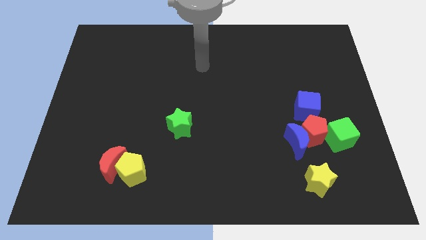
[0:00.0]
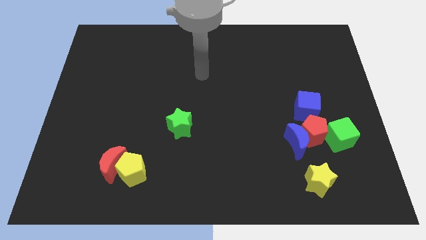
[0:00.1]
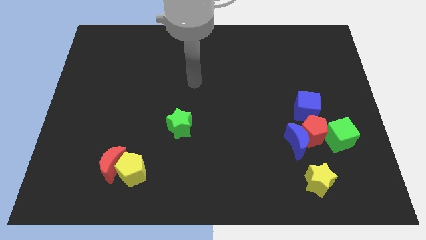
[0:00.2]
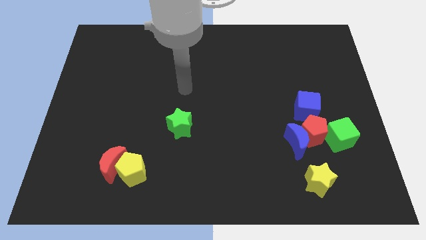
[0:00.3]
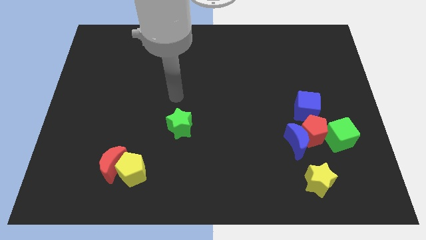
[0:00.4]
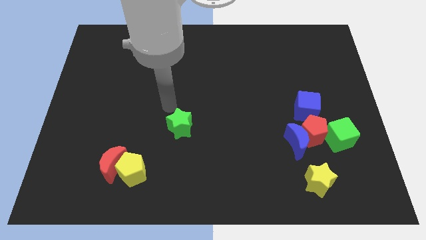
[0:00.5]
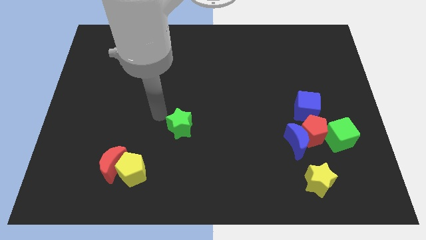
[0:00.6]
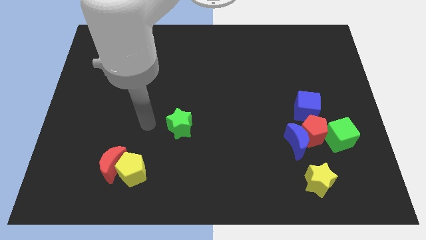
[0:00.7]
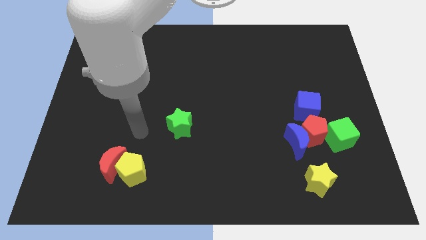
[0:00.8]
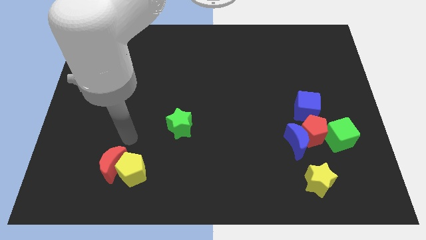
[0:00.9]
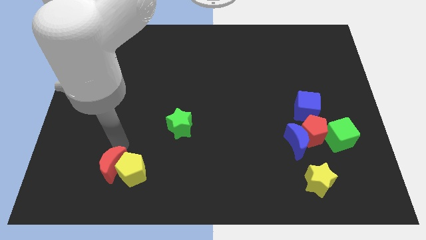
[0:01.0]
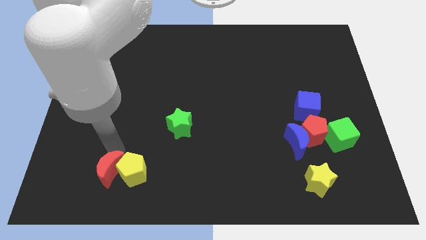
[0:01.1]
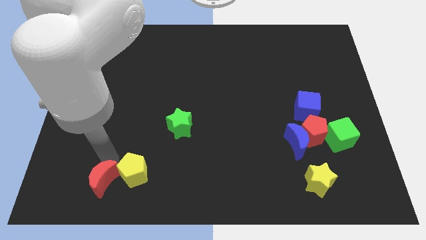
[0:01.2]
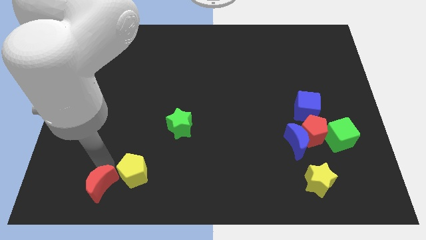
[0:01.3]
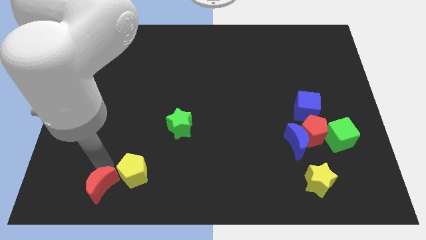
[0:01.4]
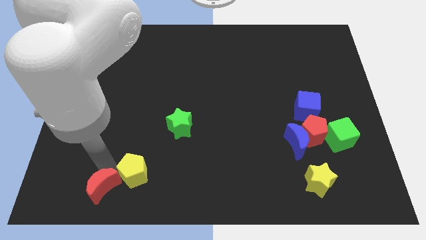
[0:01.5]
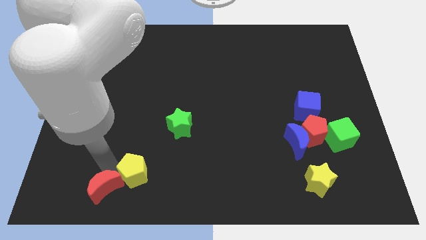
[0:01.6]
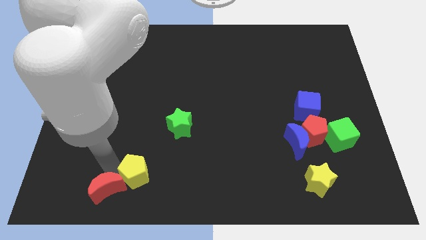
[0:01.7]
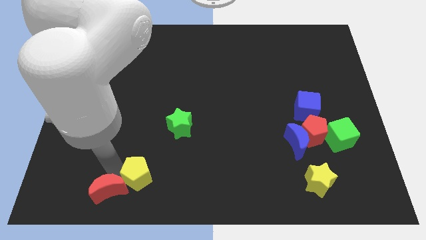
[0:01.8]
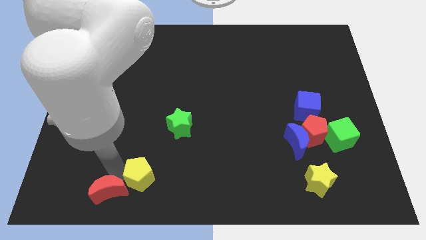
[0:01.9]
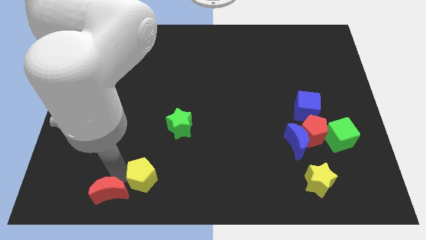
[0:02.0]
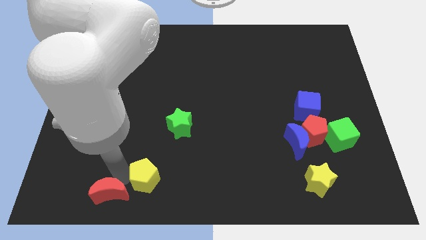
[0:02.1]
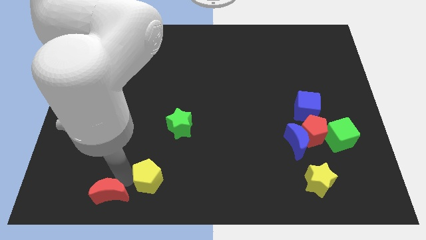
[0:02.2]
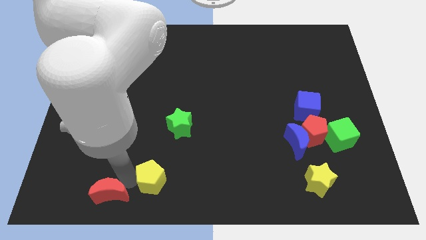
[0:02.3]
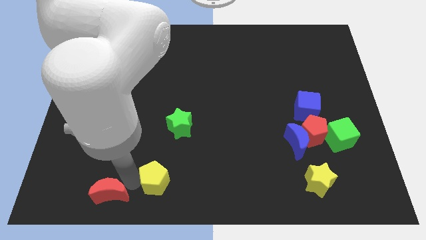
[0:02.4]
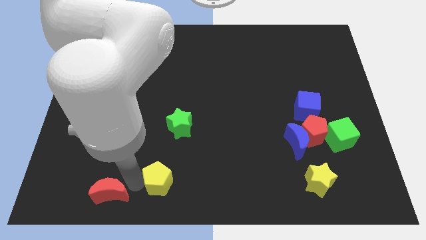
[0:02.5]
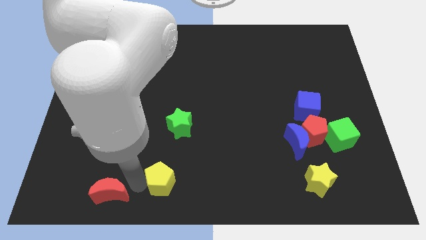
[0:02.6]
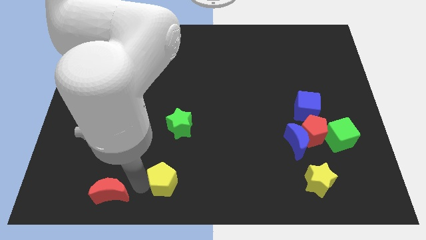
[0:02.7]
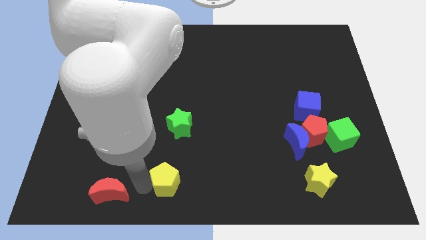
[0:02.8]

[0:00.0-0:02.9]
slightly slide the yellow pentagon to the right

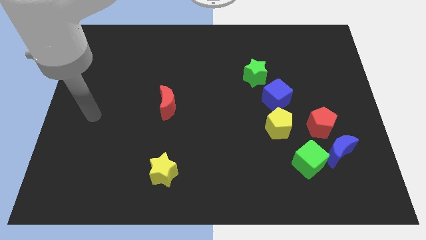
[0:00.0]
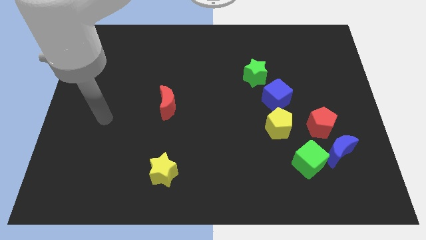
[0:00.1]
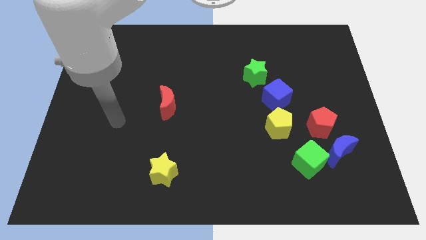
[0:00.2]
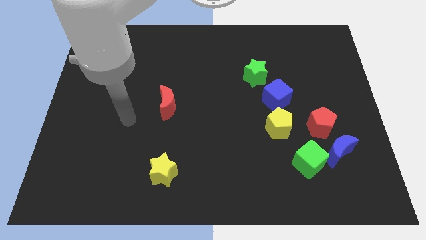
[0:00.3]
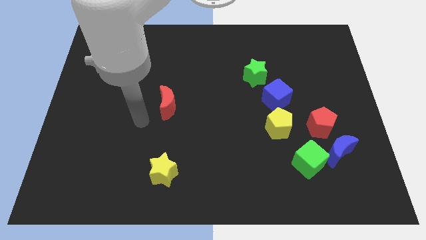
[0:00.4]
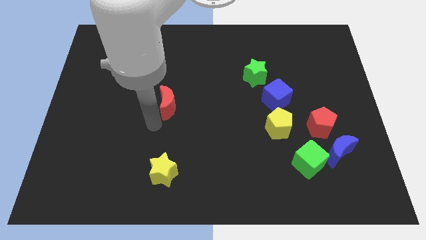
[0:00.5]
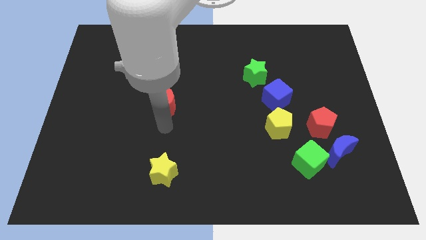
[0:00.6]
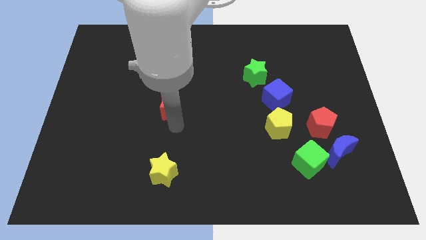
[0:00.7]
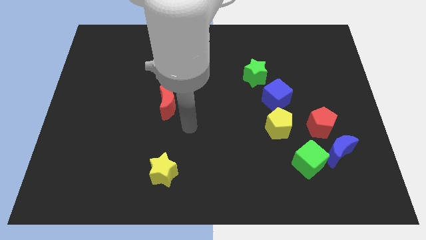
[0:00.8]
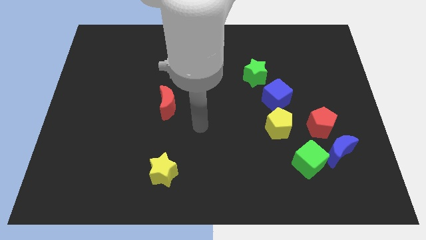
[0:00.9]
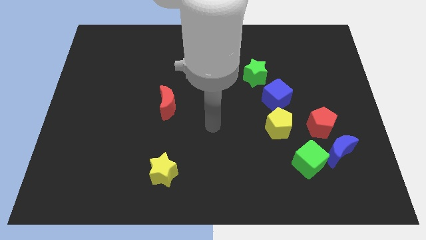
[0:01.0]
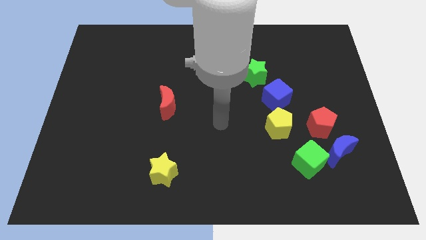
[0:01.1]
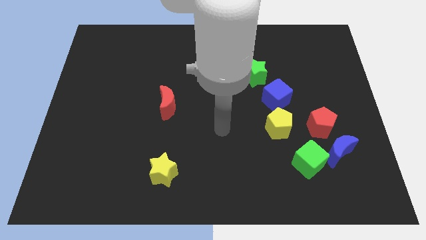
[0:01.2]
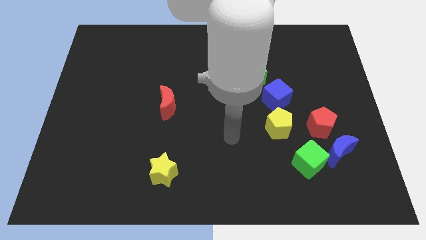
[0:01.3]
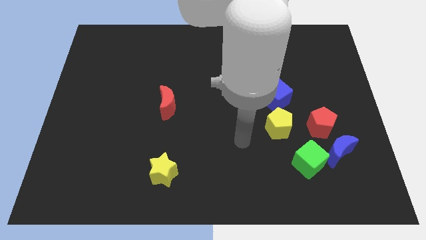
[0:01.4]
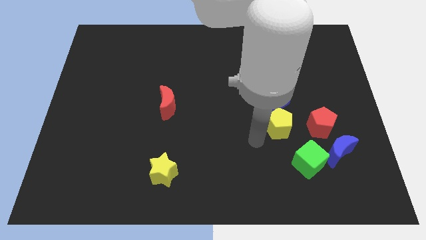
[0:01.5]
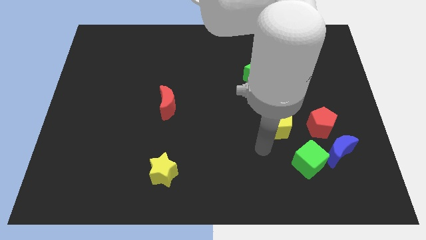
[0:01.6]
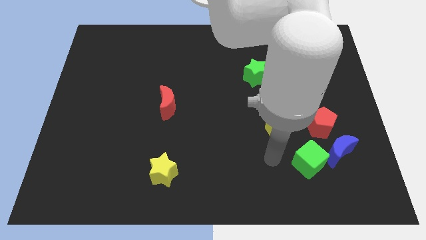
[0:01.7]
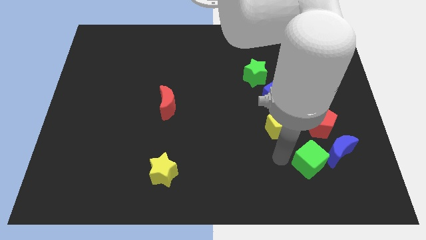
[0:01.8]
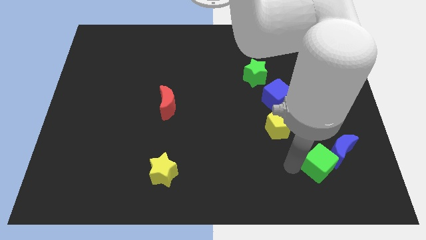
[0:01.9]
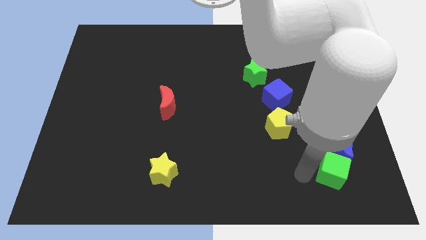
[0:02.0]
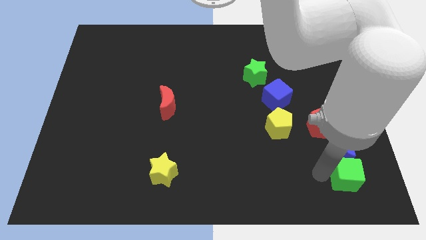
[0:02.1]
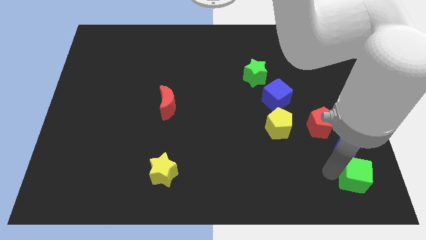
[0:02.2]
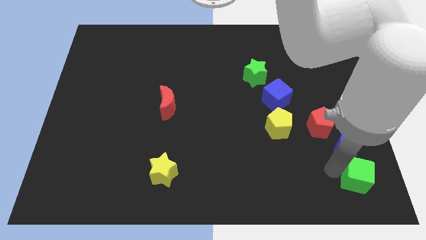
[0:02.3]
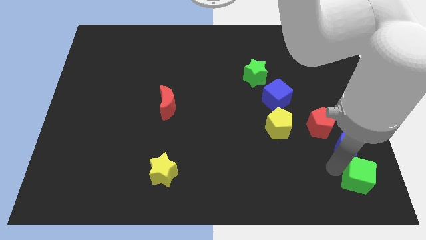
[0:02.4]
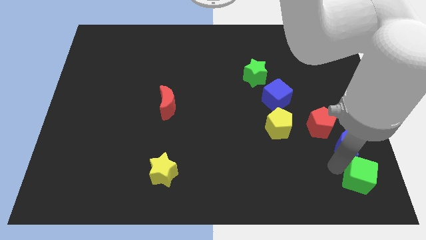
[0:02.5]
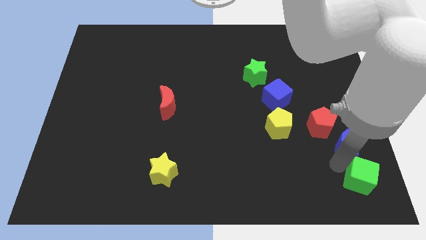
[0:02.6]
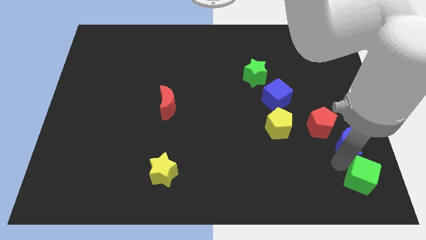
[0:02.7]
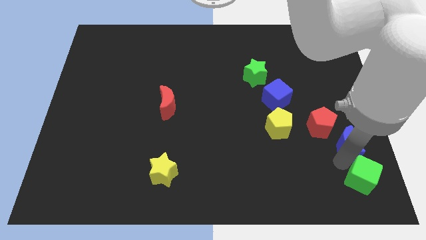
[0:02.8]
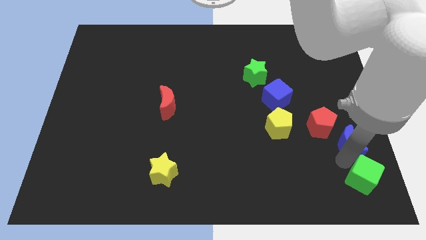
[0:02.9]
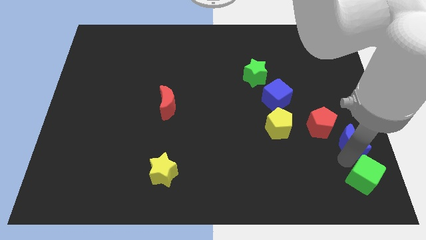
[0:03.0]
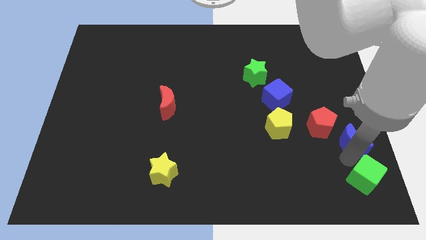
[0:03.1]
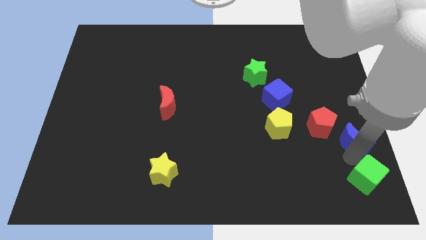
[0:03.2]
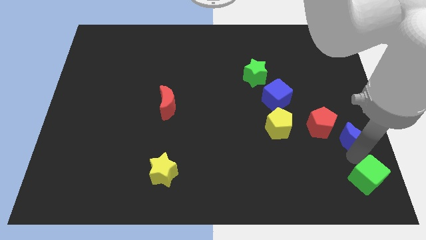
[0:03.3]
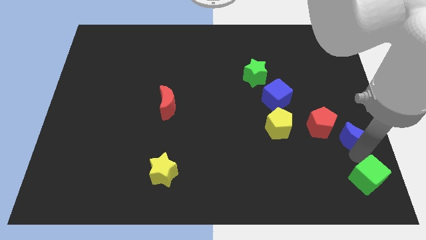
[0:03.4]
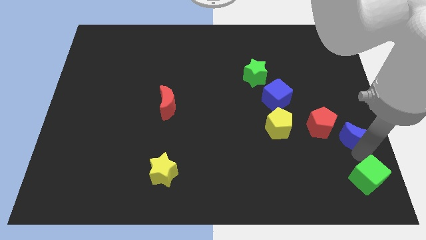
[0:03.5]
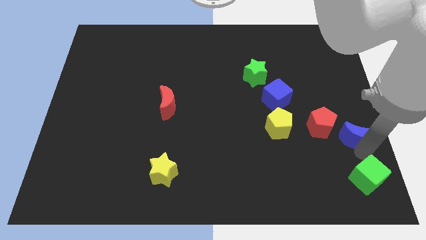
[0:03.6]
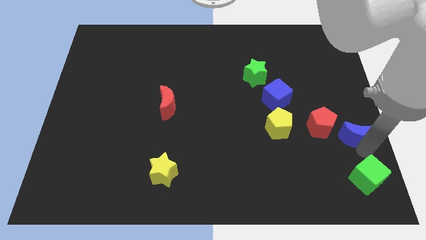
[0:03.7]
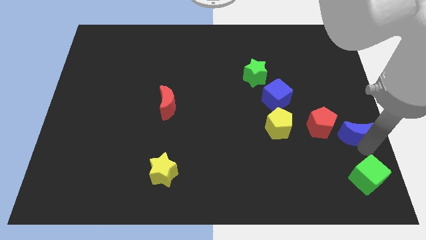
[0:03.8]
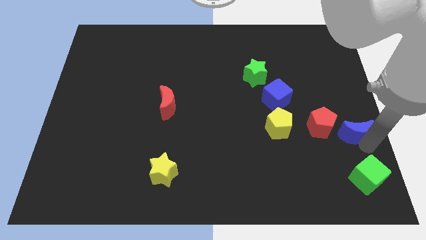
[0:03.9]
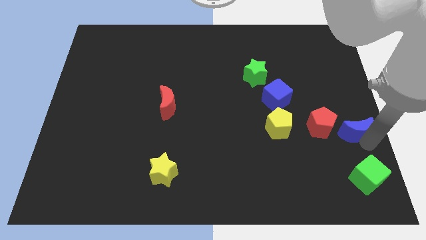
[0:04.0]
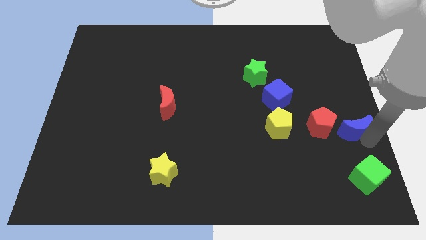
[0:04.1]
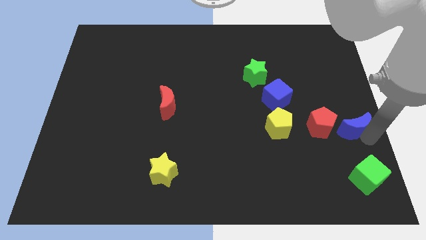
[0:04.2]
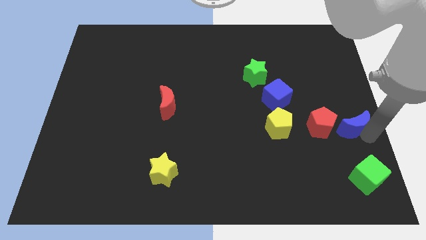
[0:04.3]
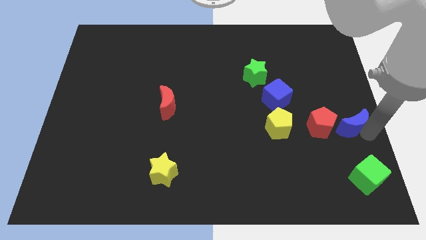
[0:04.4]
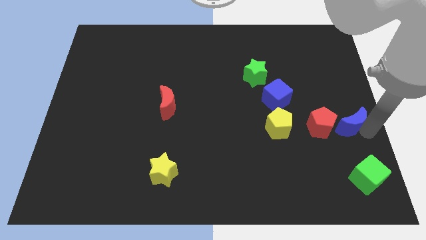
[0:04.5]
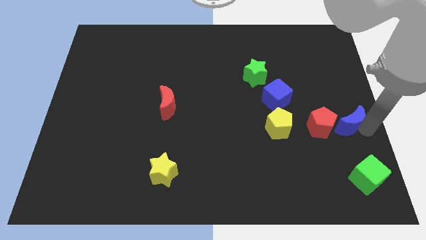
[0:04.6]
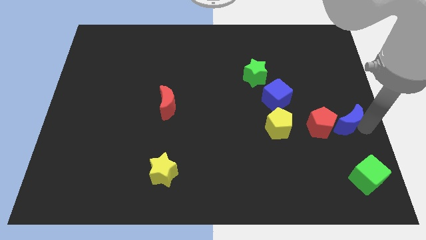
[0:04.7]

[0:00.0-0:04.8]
move the blue moon upwards a little

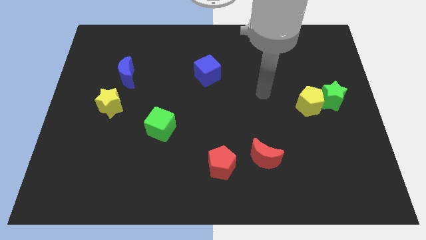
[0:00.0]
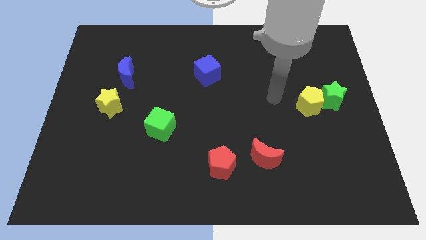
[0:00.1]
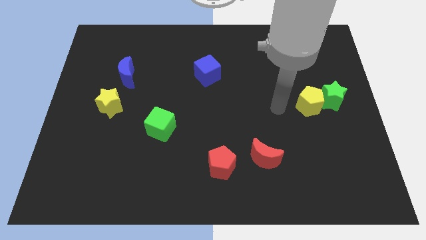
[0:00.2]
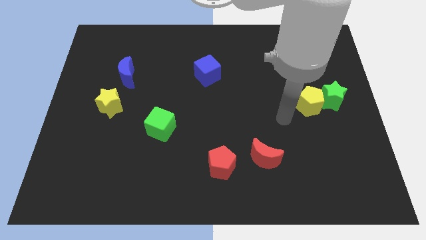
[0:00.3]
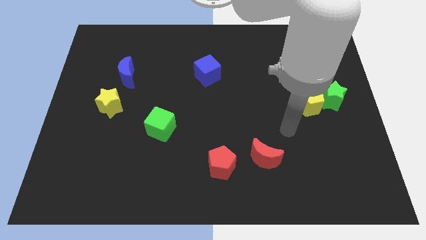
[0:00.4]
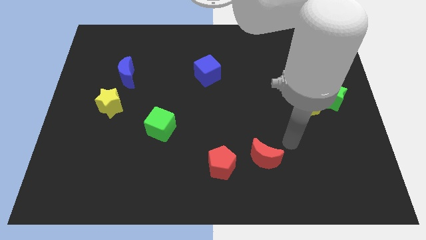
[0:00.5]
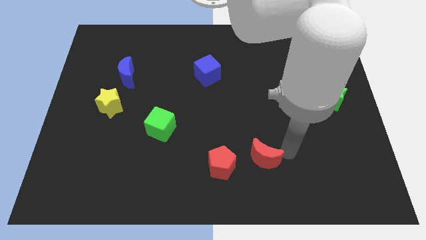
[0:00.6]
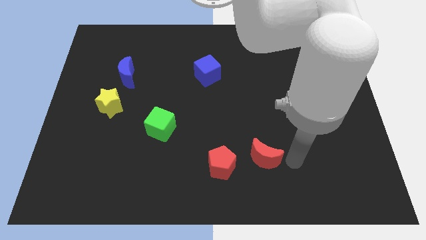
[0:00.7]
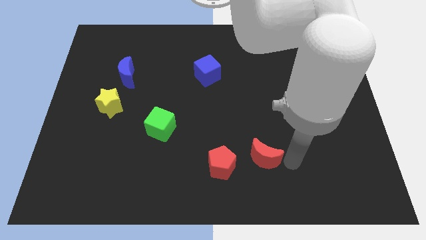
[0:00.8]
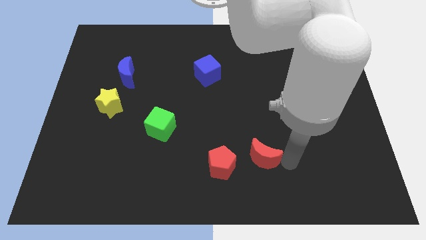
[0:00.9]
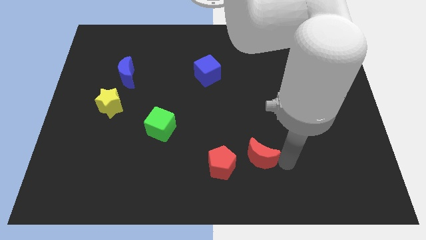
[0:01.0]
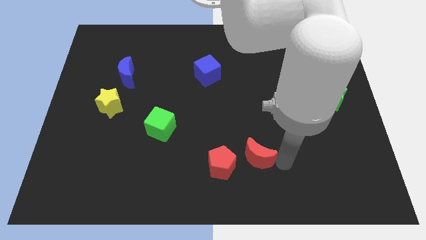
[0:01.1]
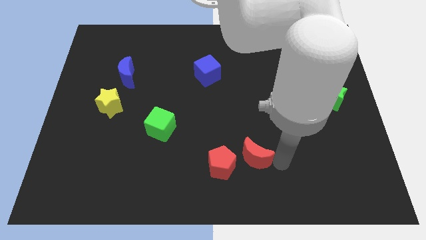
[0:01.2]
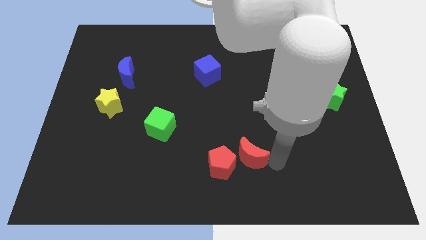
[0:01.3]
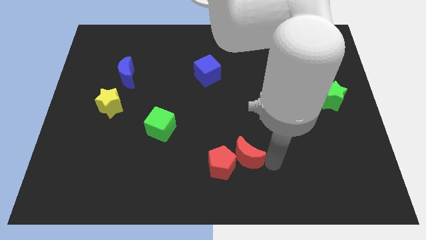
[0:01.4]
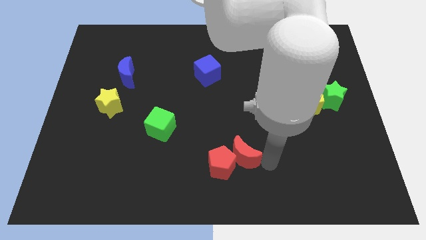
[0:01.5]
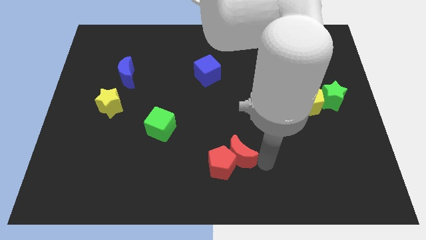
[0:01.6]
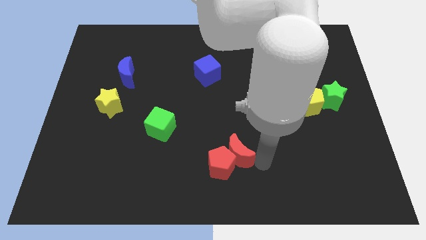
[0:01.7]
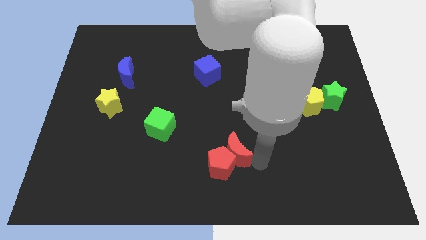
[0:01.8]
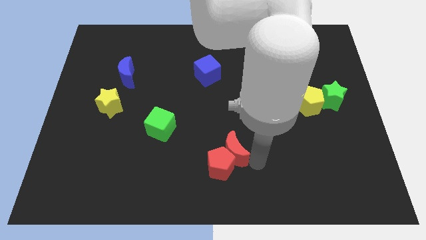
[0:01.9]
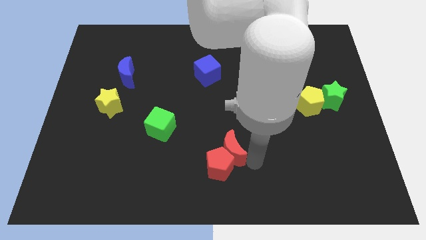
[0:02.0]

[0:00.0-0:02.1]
slightly push the red moon left
